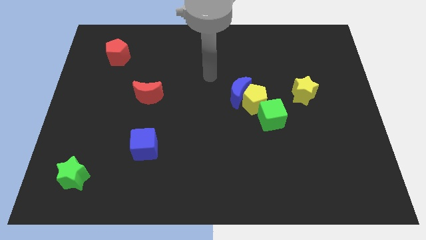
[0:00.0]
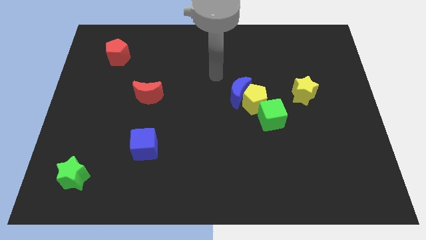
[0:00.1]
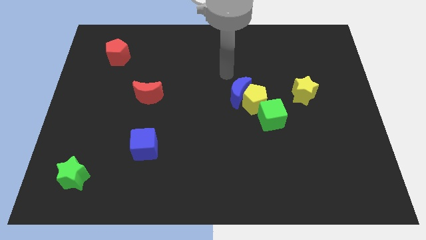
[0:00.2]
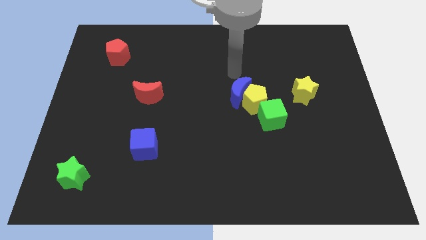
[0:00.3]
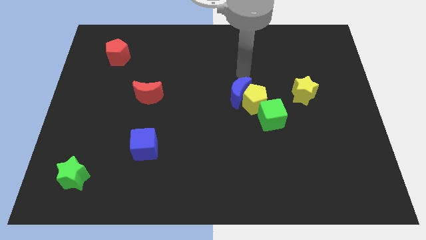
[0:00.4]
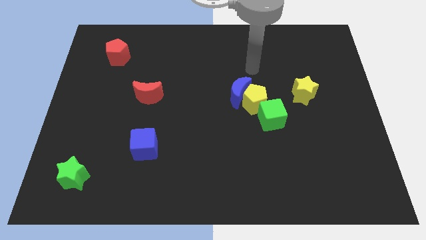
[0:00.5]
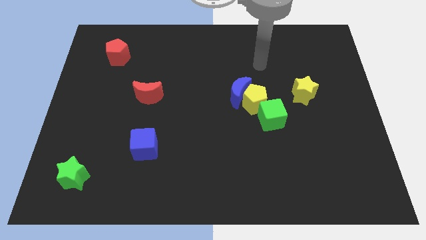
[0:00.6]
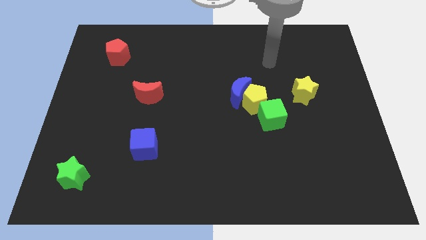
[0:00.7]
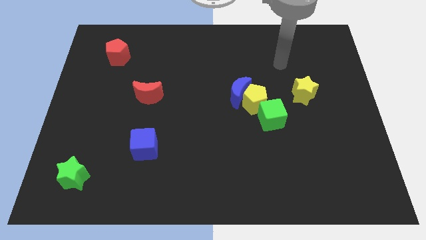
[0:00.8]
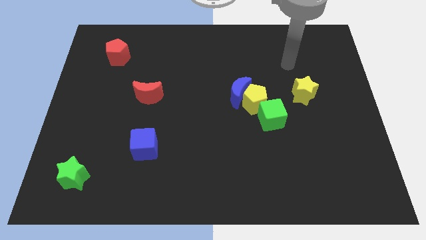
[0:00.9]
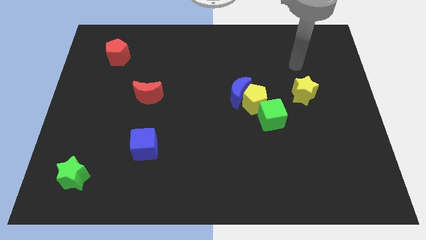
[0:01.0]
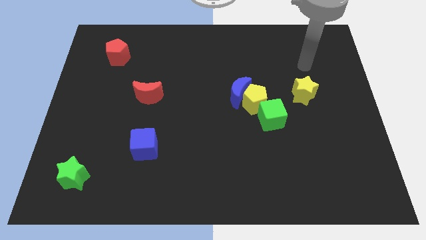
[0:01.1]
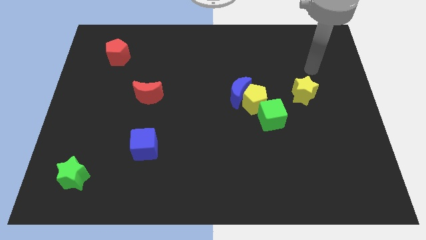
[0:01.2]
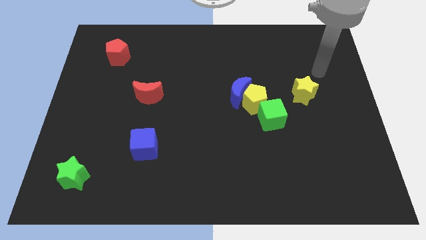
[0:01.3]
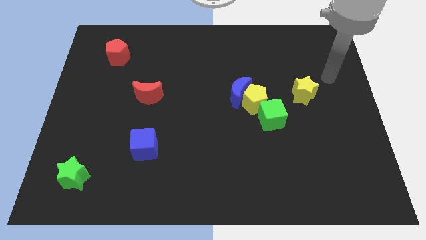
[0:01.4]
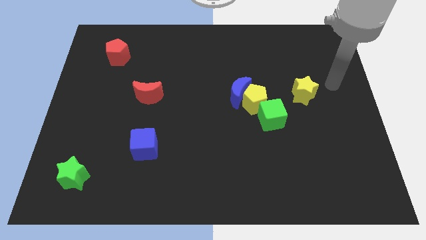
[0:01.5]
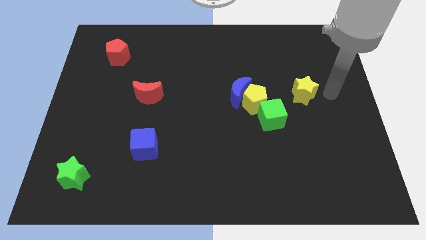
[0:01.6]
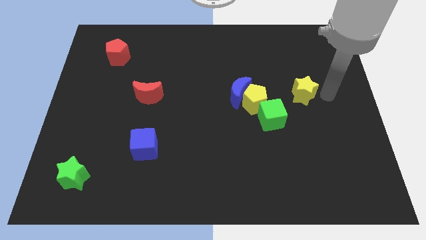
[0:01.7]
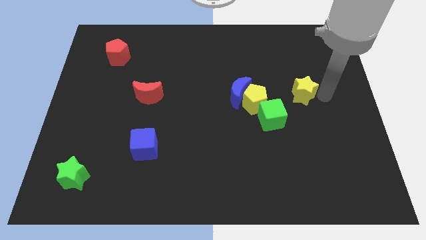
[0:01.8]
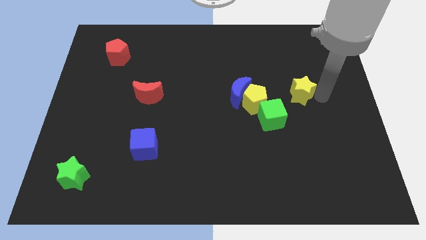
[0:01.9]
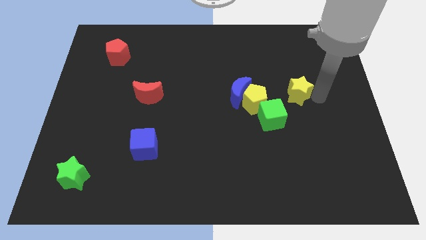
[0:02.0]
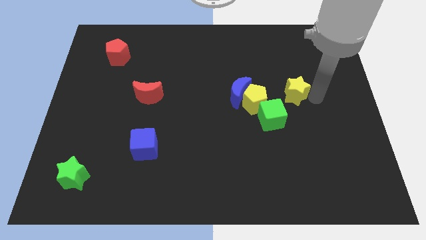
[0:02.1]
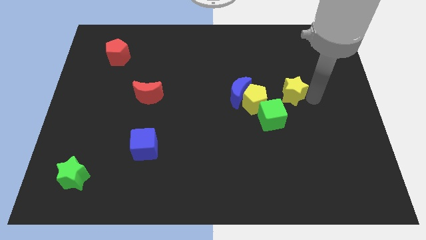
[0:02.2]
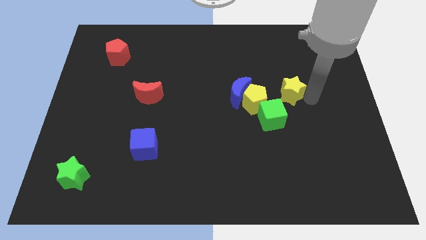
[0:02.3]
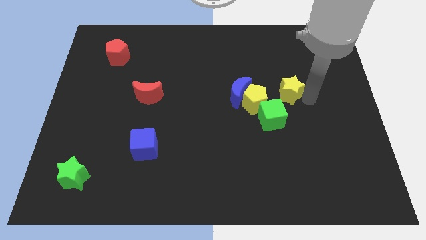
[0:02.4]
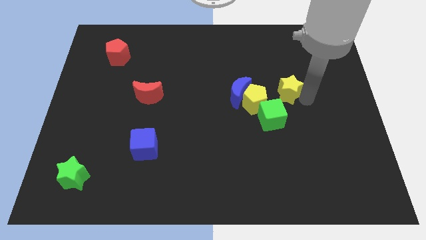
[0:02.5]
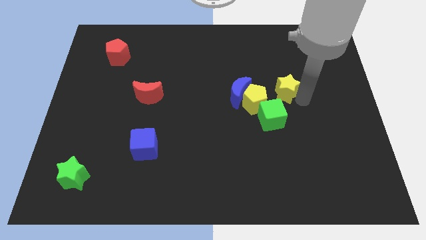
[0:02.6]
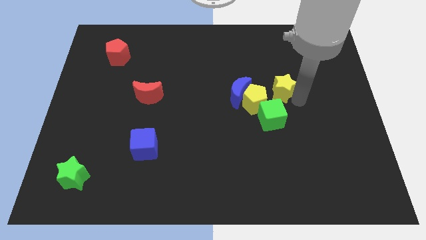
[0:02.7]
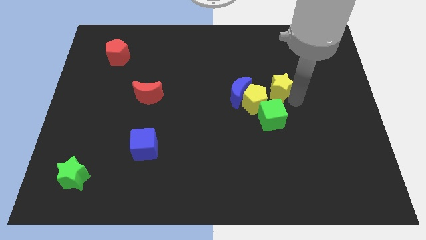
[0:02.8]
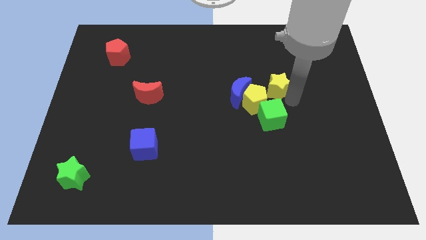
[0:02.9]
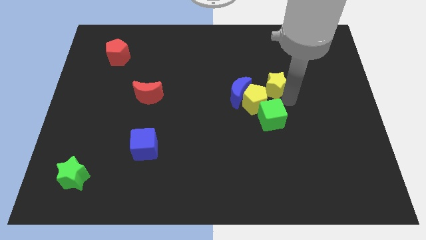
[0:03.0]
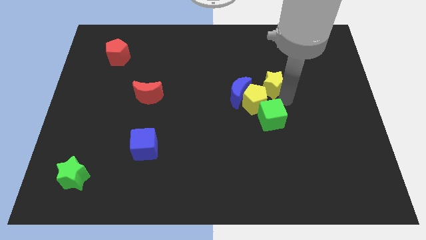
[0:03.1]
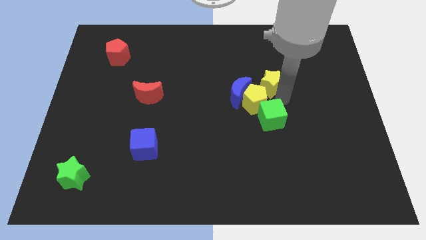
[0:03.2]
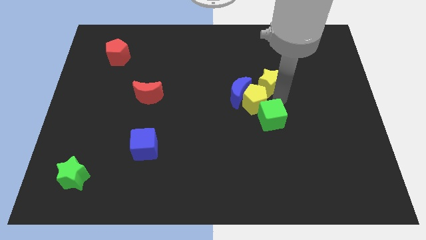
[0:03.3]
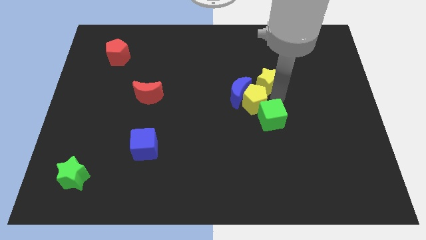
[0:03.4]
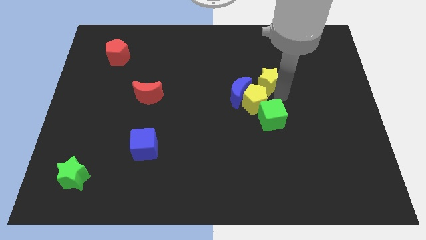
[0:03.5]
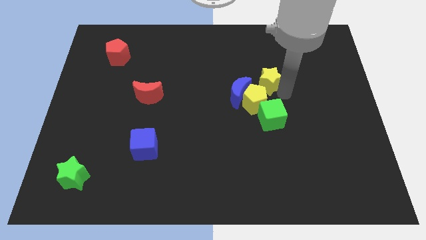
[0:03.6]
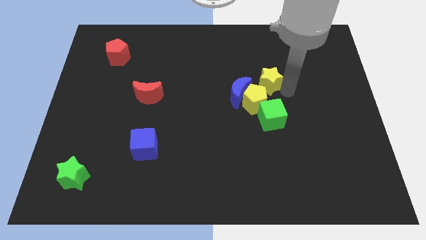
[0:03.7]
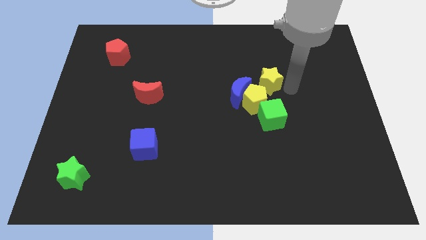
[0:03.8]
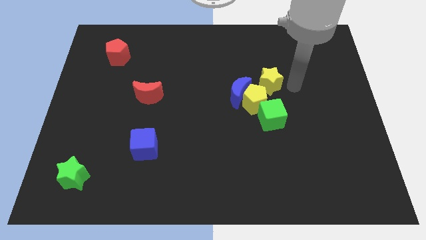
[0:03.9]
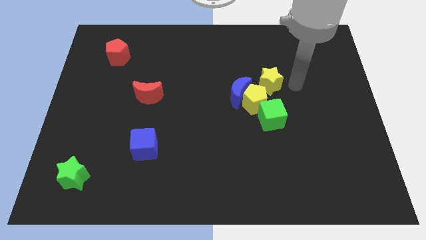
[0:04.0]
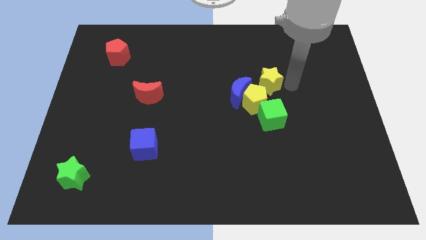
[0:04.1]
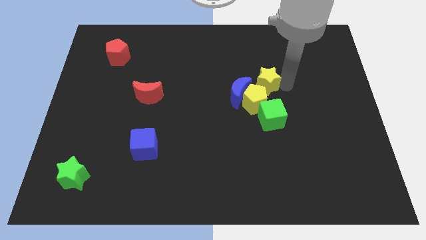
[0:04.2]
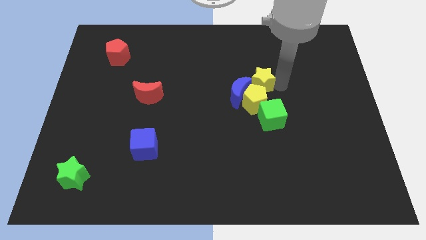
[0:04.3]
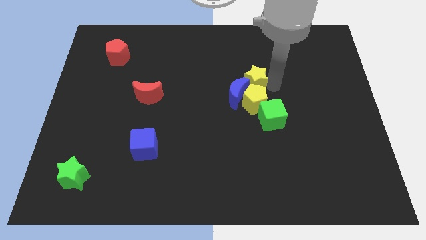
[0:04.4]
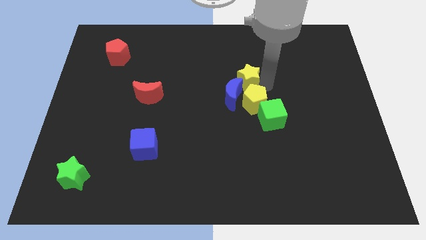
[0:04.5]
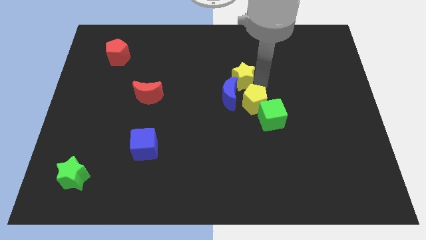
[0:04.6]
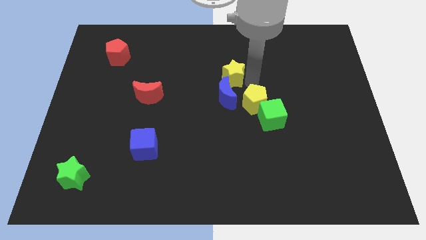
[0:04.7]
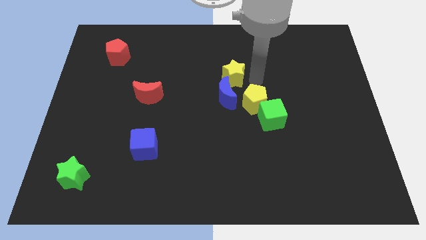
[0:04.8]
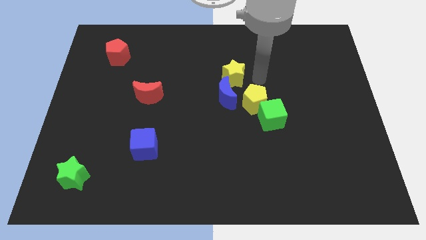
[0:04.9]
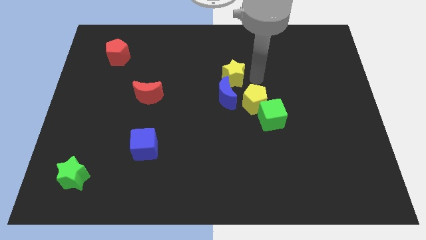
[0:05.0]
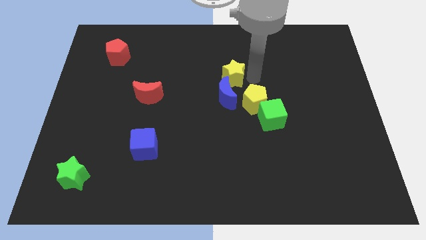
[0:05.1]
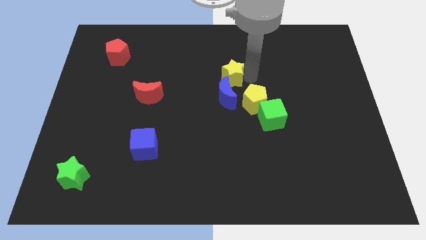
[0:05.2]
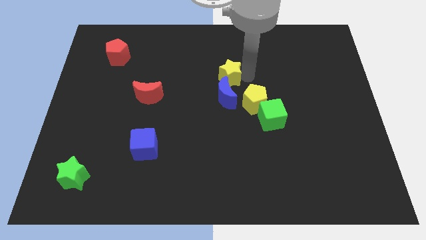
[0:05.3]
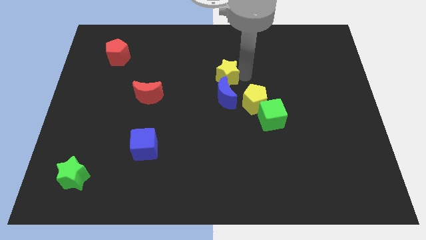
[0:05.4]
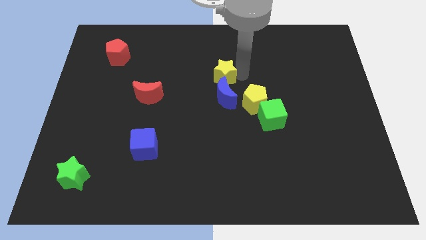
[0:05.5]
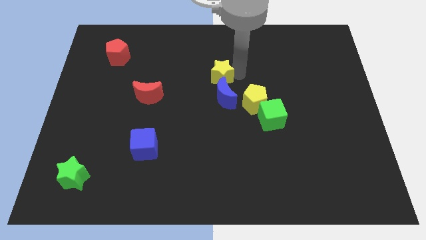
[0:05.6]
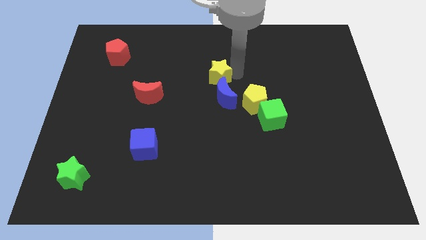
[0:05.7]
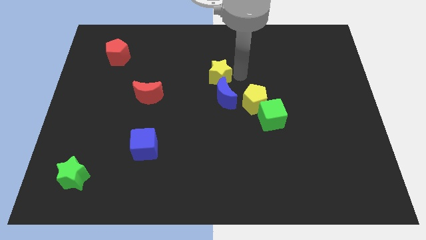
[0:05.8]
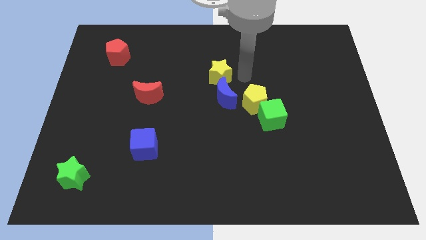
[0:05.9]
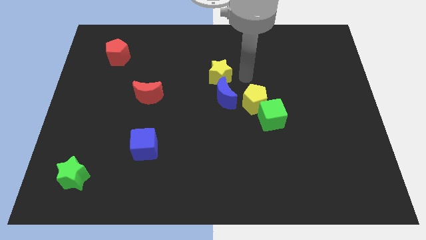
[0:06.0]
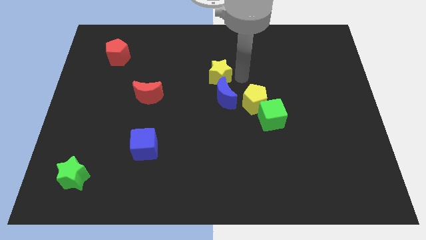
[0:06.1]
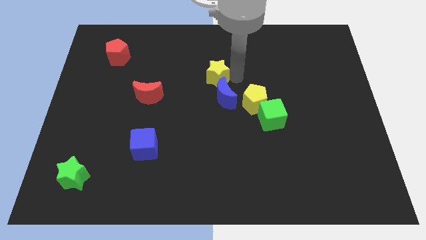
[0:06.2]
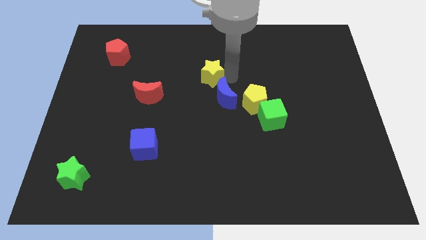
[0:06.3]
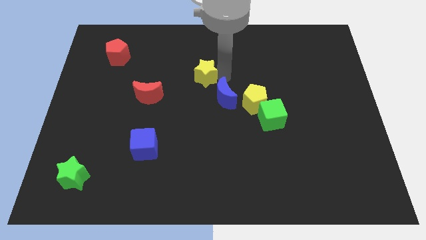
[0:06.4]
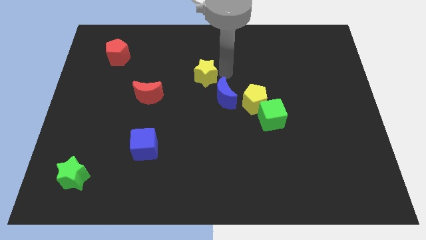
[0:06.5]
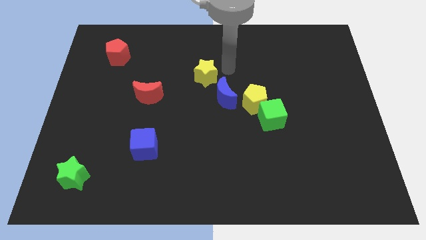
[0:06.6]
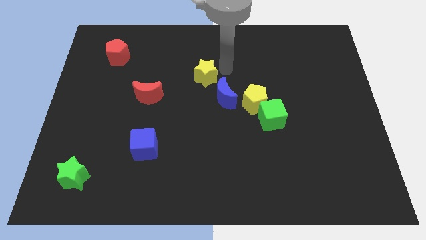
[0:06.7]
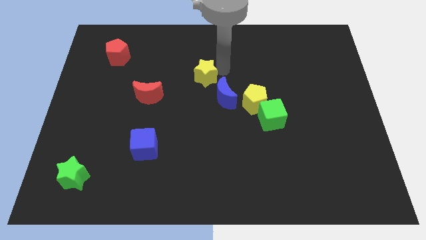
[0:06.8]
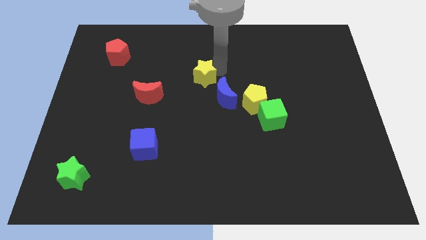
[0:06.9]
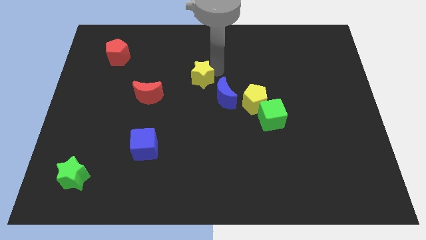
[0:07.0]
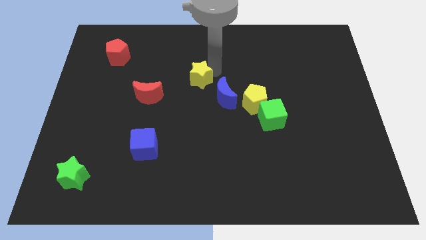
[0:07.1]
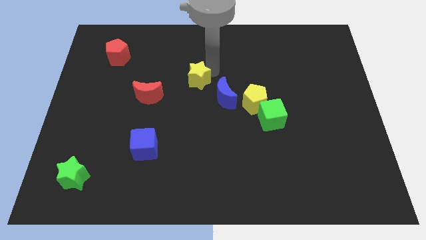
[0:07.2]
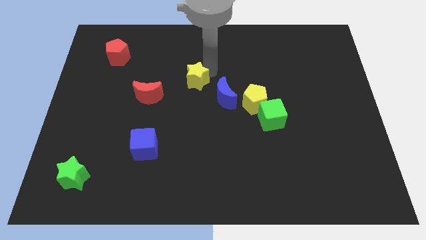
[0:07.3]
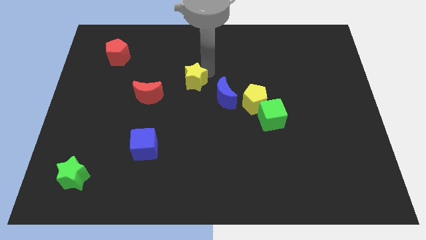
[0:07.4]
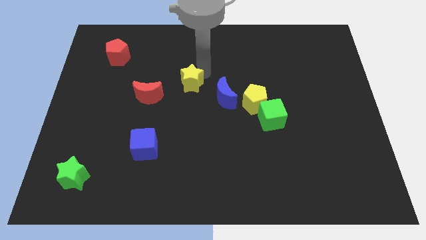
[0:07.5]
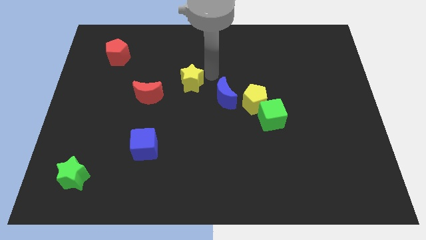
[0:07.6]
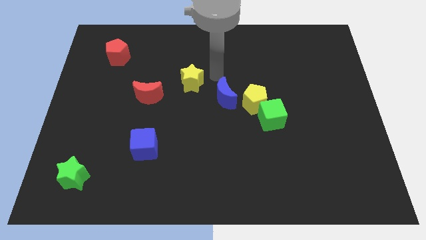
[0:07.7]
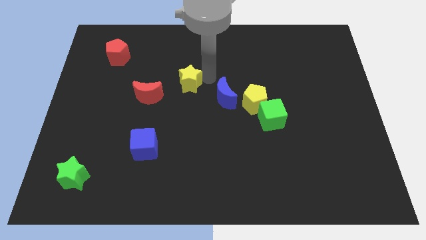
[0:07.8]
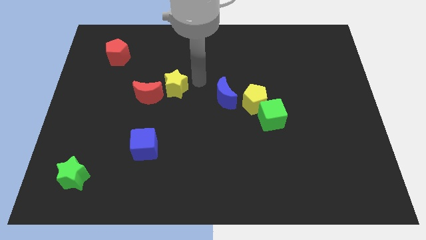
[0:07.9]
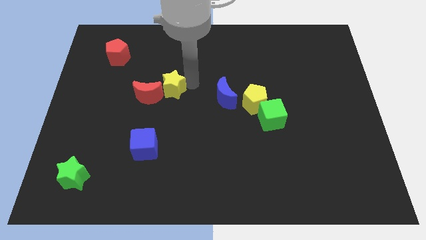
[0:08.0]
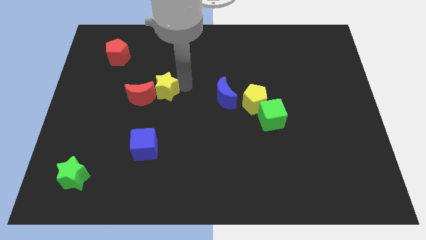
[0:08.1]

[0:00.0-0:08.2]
move the yellow star to the red moon

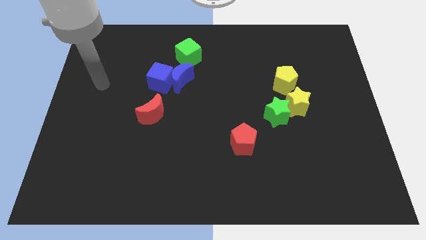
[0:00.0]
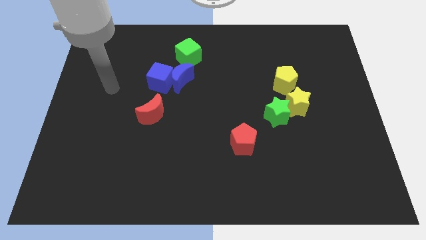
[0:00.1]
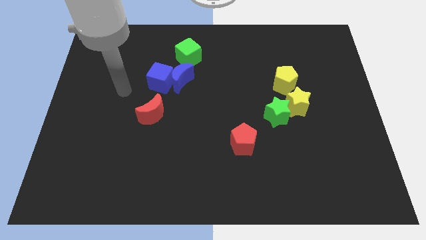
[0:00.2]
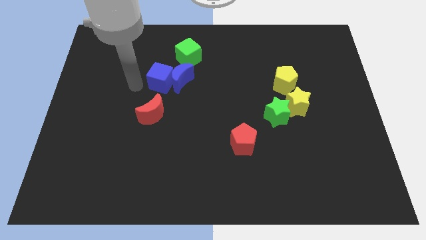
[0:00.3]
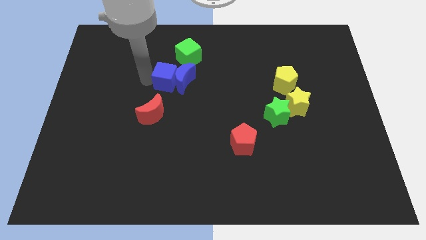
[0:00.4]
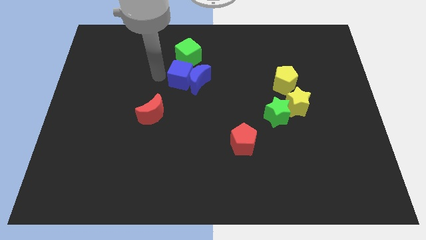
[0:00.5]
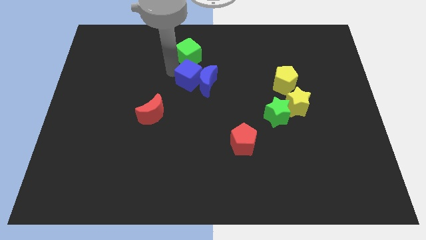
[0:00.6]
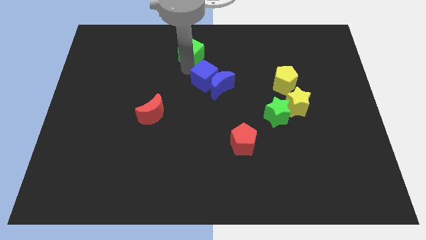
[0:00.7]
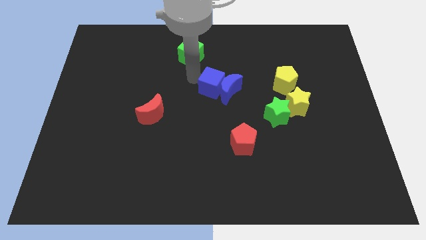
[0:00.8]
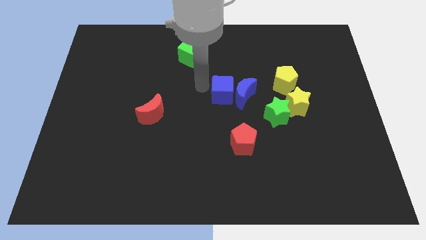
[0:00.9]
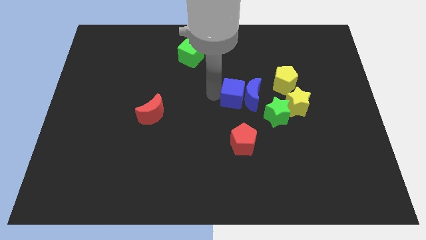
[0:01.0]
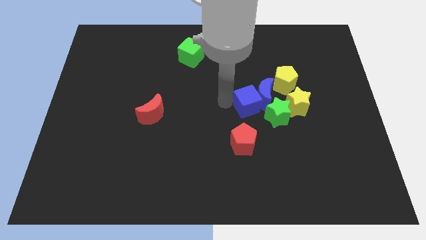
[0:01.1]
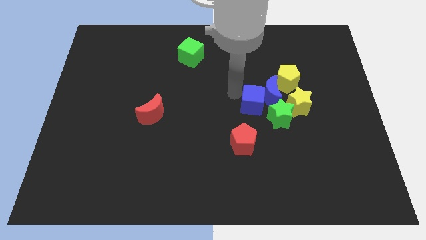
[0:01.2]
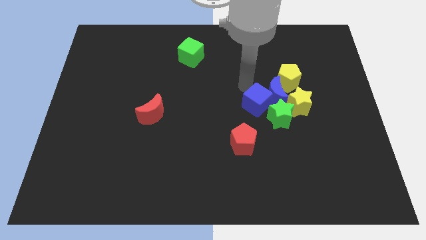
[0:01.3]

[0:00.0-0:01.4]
move the blue moon to the yellow star
